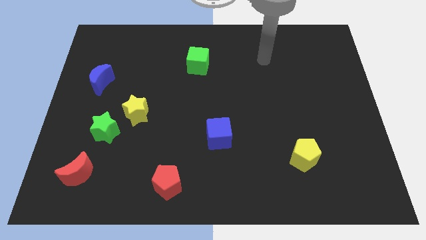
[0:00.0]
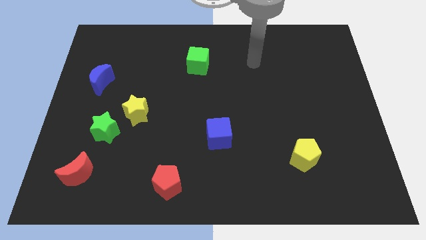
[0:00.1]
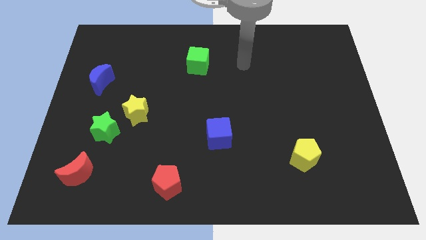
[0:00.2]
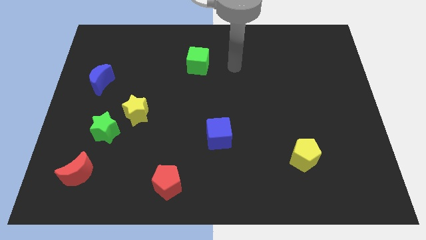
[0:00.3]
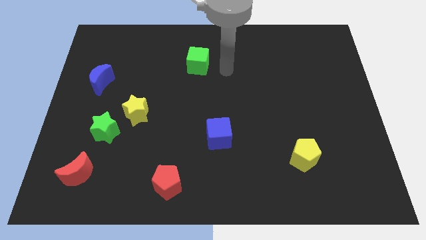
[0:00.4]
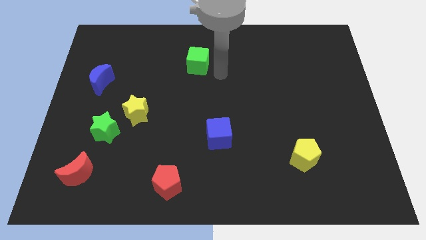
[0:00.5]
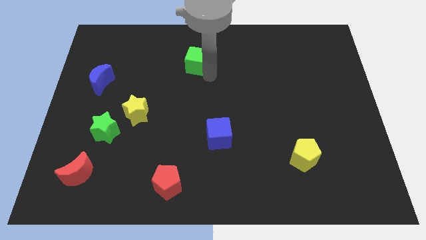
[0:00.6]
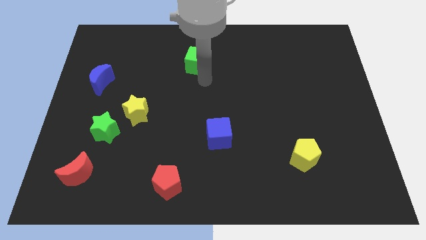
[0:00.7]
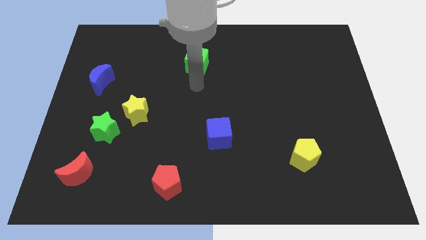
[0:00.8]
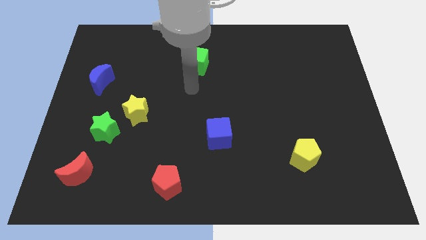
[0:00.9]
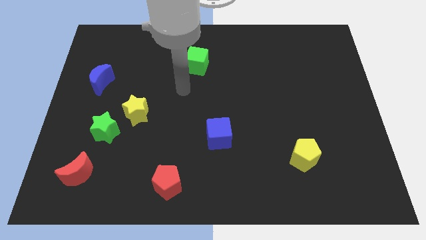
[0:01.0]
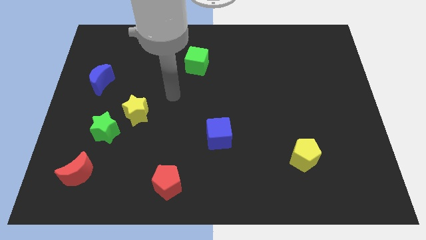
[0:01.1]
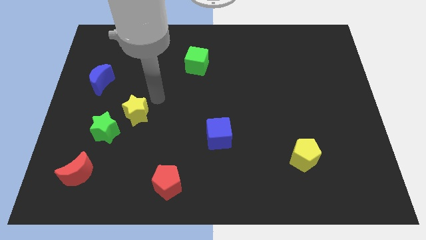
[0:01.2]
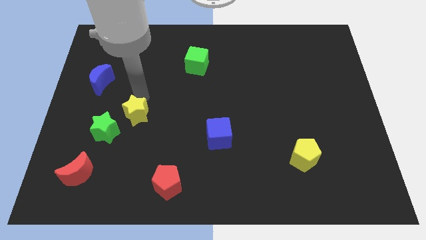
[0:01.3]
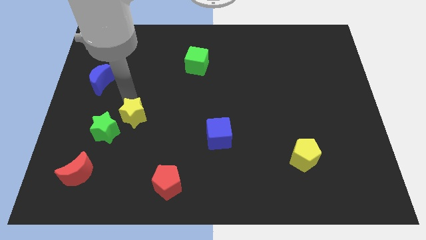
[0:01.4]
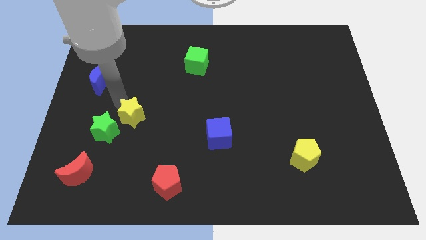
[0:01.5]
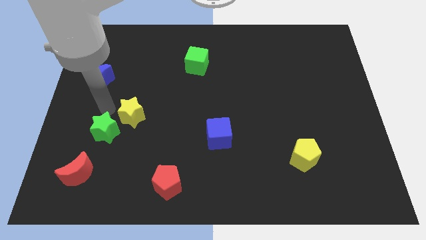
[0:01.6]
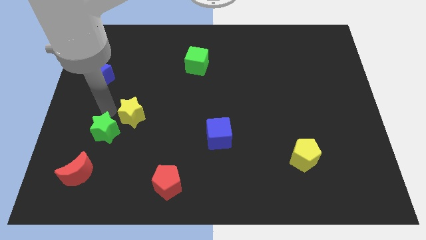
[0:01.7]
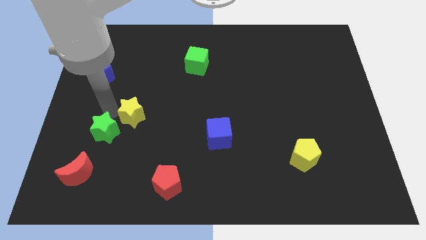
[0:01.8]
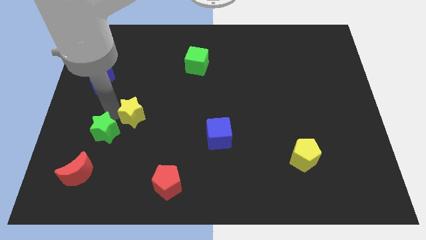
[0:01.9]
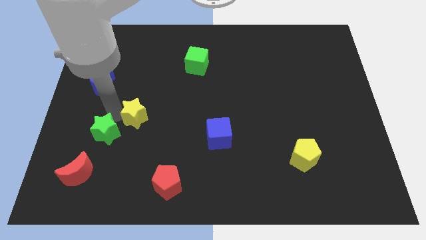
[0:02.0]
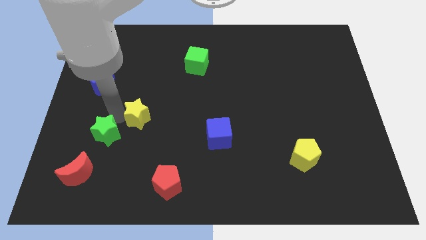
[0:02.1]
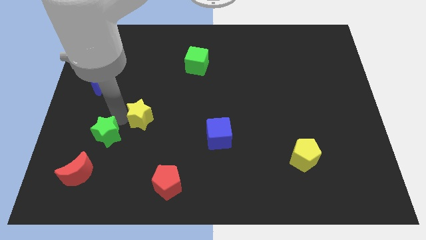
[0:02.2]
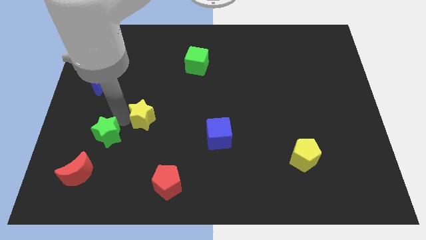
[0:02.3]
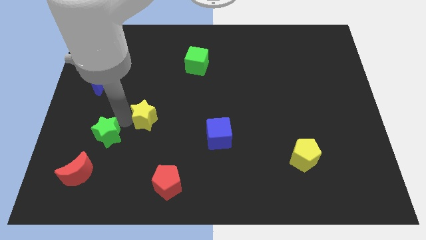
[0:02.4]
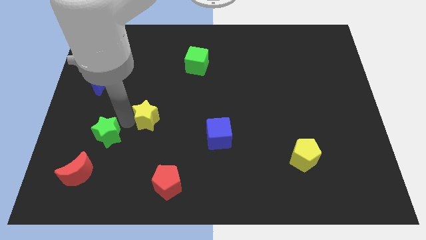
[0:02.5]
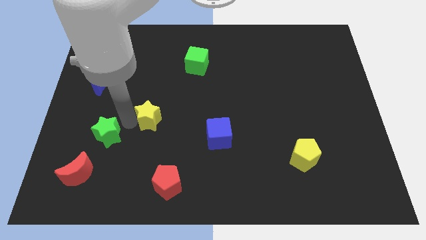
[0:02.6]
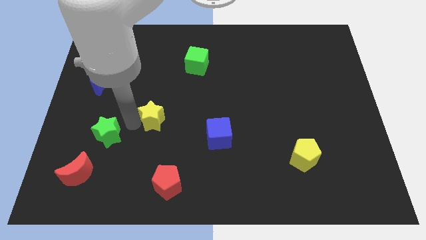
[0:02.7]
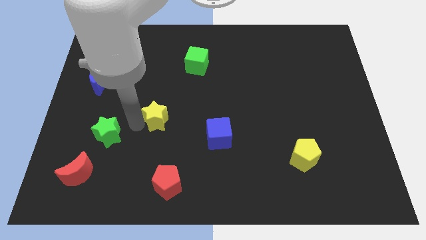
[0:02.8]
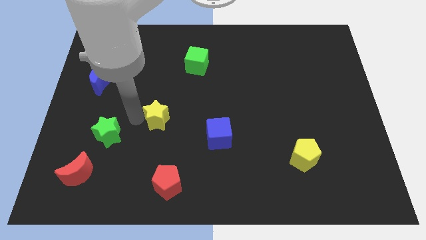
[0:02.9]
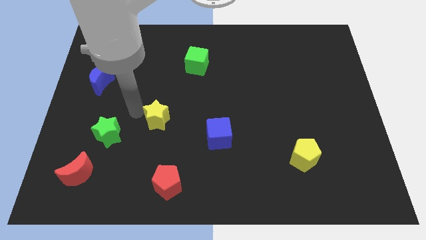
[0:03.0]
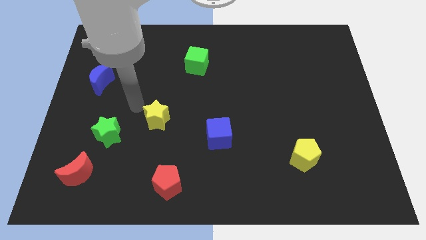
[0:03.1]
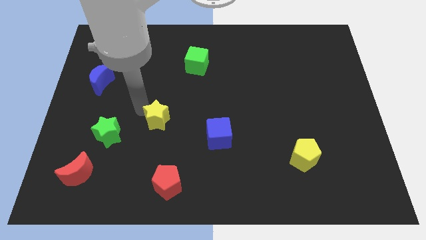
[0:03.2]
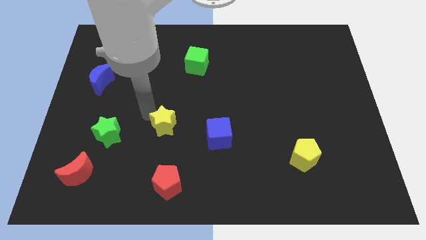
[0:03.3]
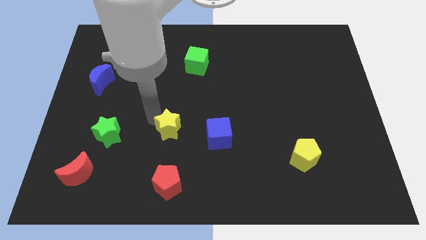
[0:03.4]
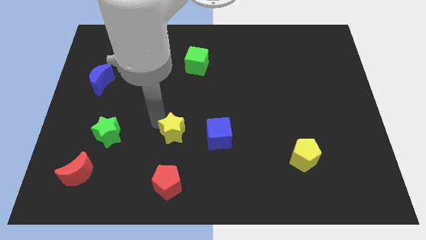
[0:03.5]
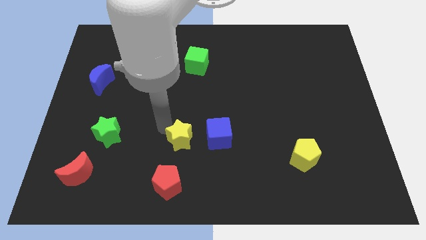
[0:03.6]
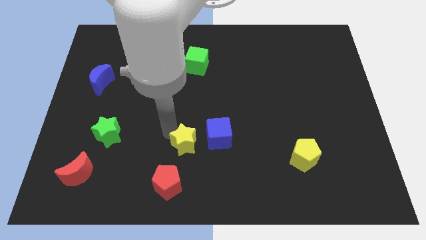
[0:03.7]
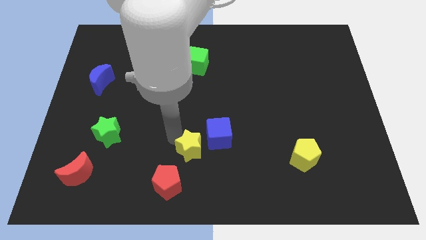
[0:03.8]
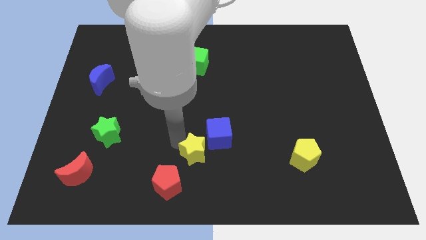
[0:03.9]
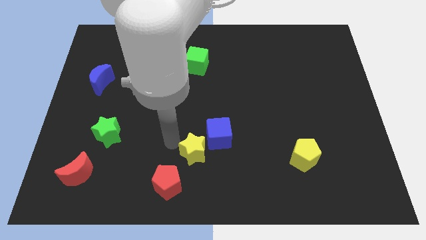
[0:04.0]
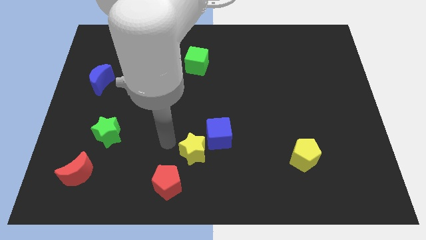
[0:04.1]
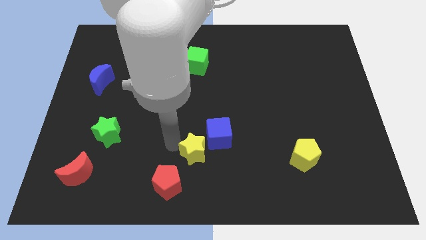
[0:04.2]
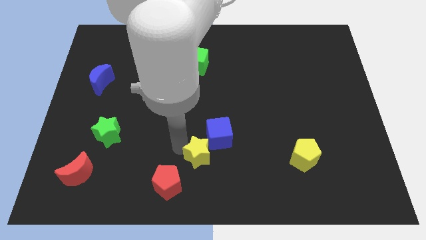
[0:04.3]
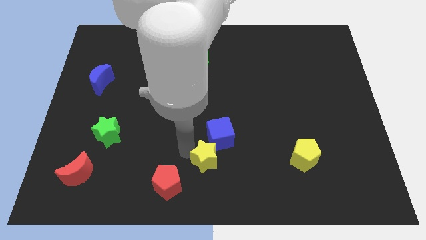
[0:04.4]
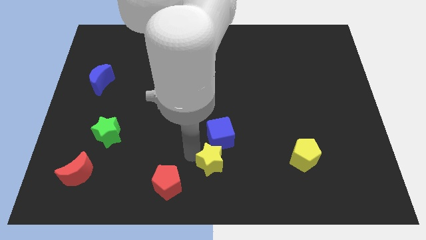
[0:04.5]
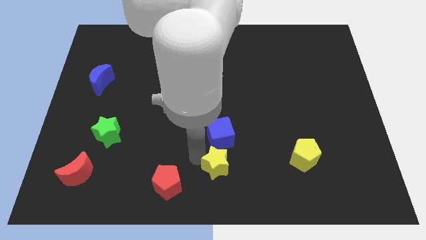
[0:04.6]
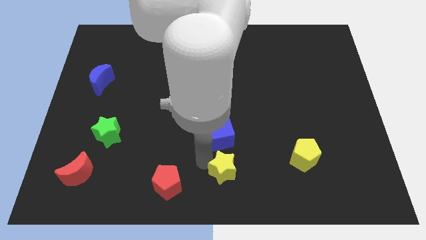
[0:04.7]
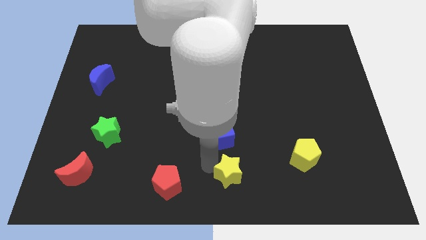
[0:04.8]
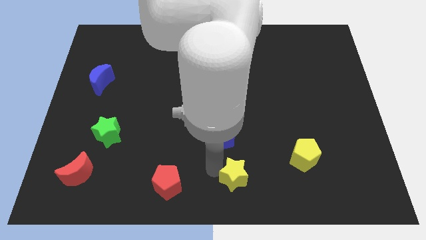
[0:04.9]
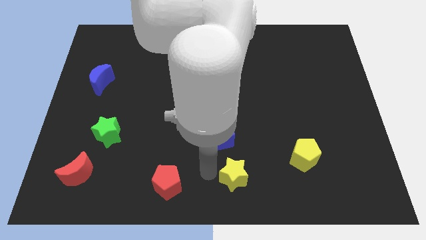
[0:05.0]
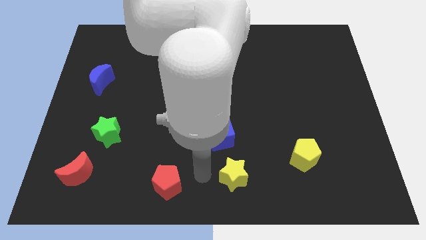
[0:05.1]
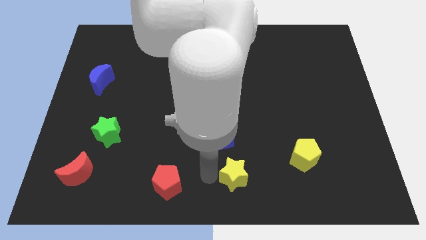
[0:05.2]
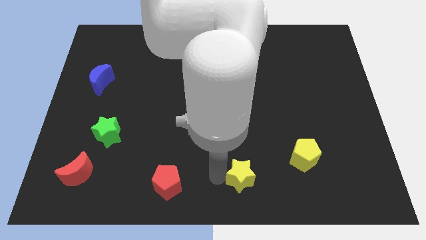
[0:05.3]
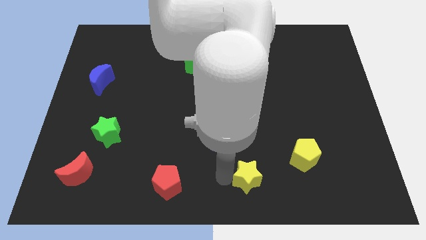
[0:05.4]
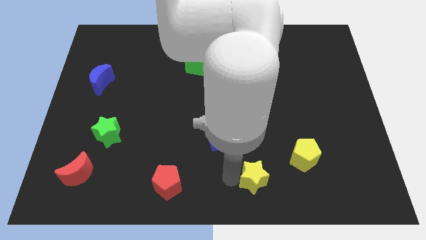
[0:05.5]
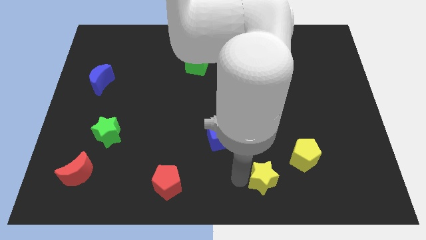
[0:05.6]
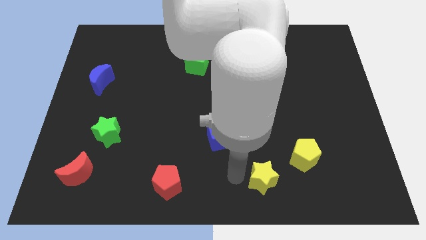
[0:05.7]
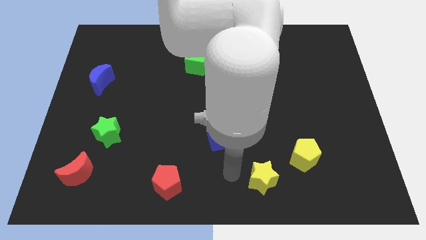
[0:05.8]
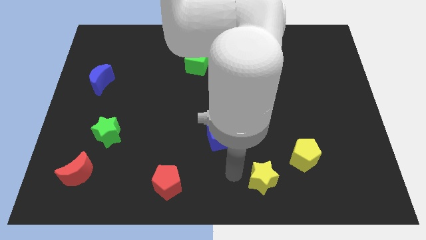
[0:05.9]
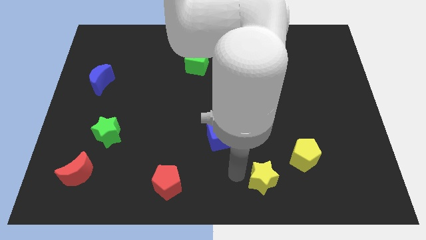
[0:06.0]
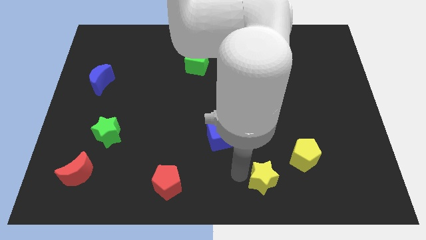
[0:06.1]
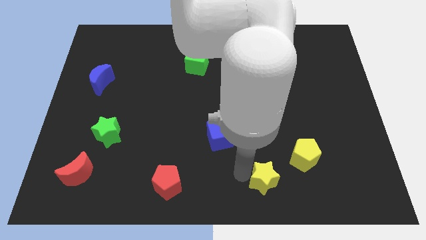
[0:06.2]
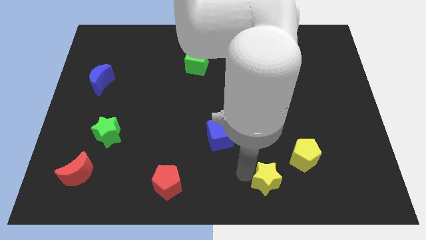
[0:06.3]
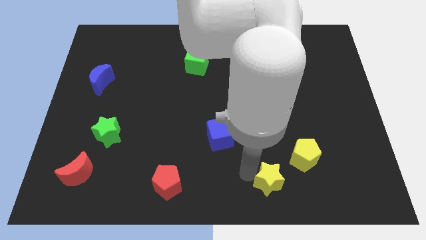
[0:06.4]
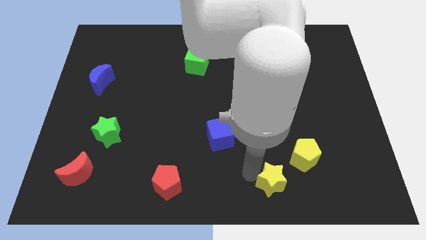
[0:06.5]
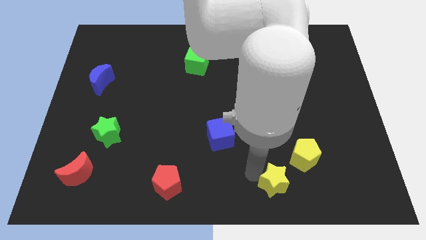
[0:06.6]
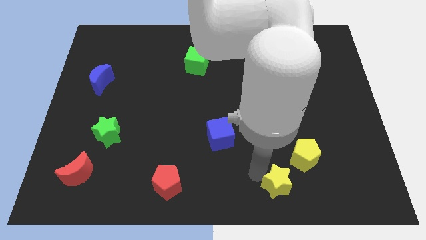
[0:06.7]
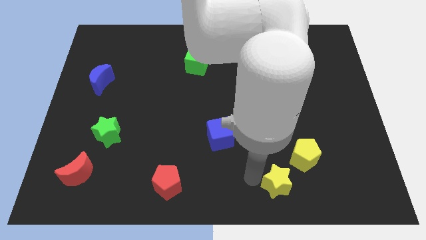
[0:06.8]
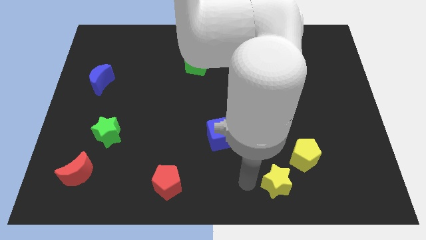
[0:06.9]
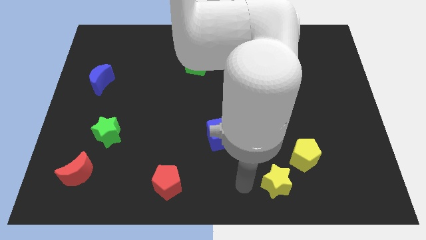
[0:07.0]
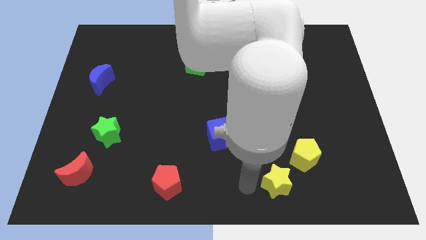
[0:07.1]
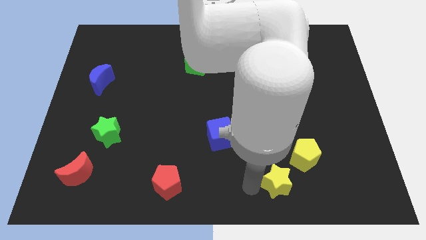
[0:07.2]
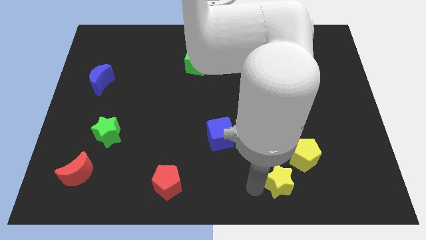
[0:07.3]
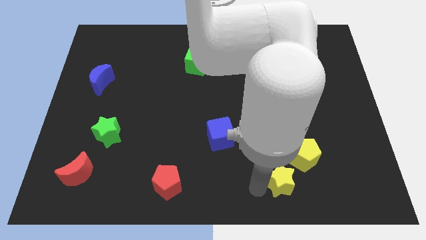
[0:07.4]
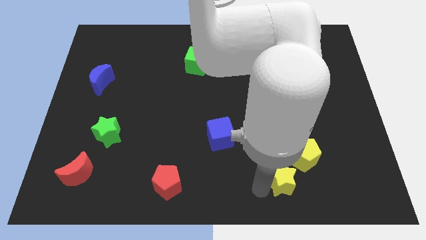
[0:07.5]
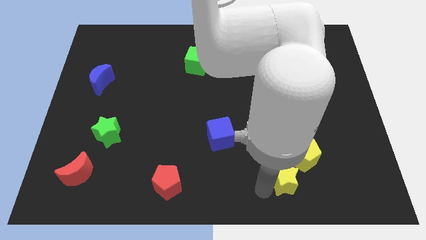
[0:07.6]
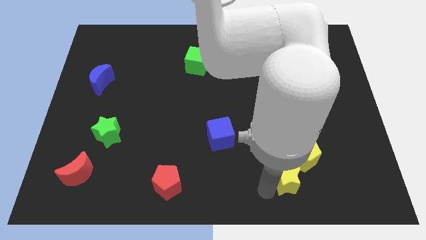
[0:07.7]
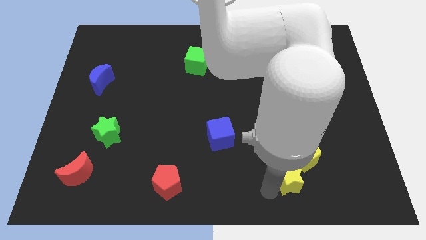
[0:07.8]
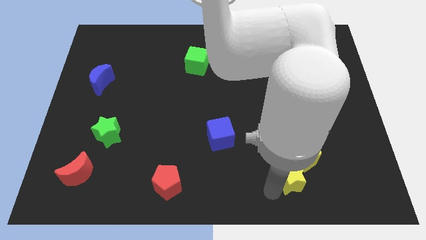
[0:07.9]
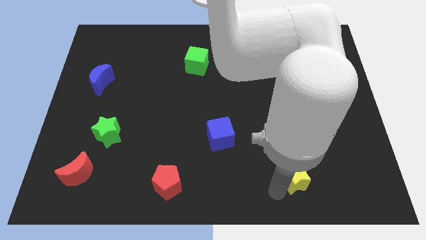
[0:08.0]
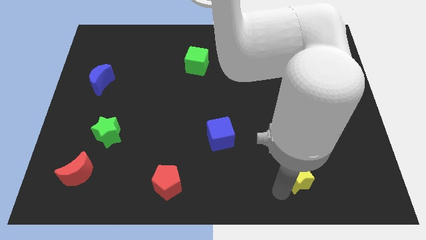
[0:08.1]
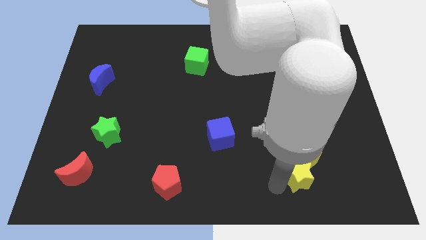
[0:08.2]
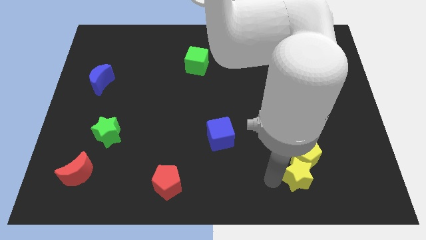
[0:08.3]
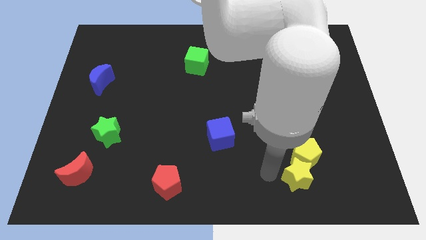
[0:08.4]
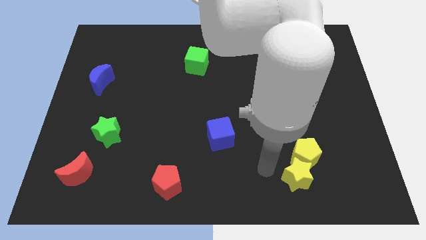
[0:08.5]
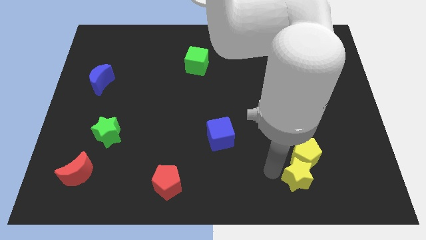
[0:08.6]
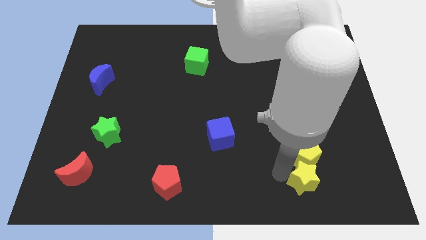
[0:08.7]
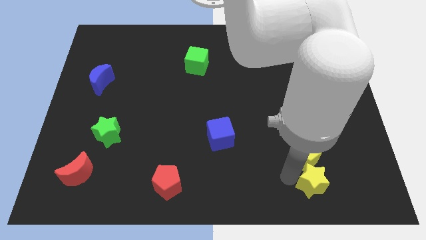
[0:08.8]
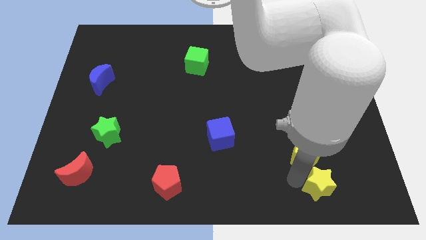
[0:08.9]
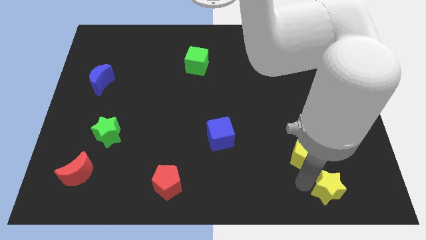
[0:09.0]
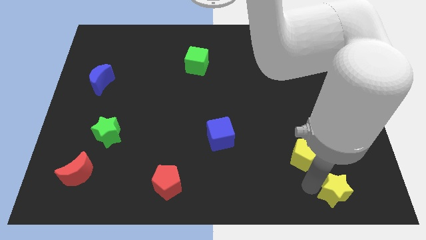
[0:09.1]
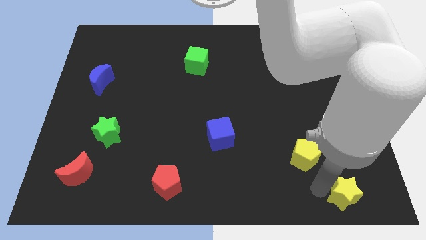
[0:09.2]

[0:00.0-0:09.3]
put the yellow star to the bottom right corner
